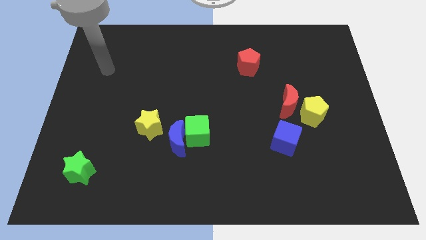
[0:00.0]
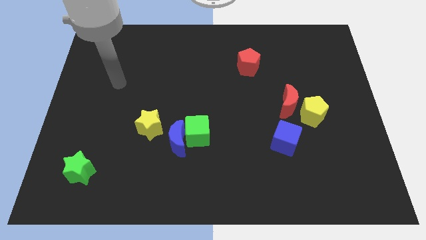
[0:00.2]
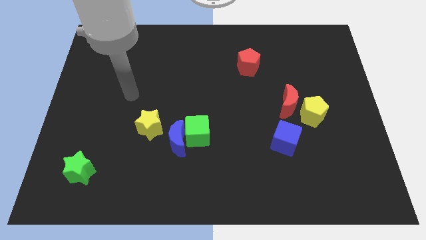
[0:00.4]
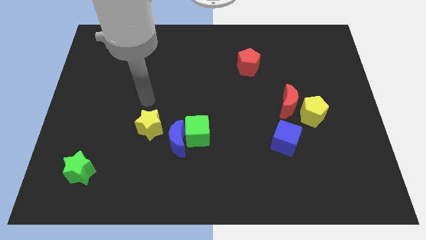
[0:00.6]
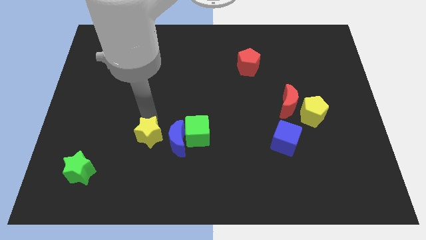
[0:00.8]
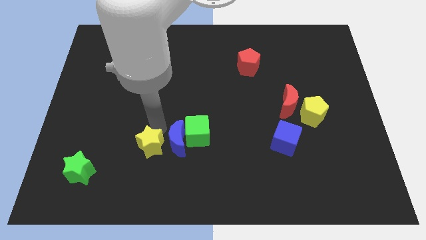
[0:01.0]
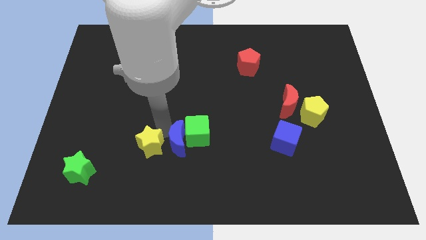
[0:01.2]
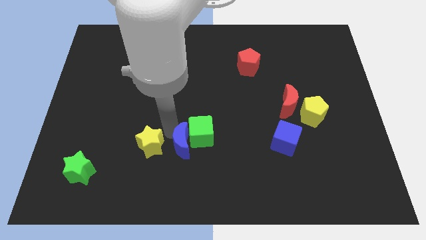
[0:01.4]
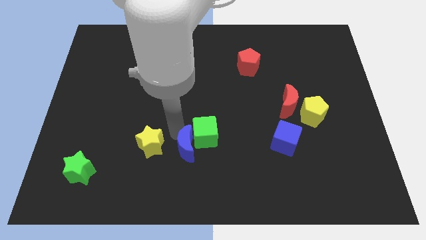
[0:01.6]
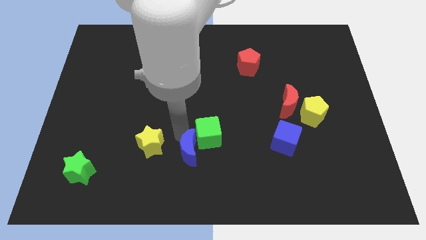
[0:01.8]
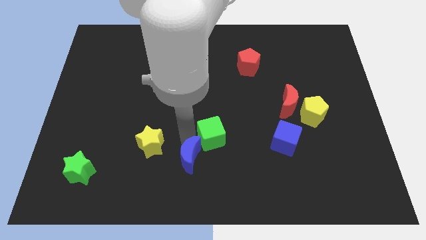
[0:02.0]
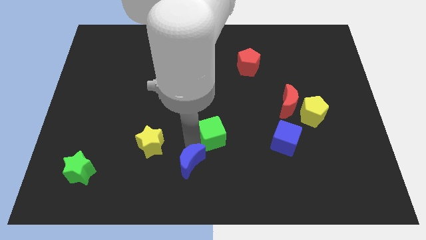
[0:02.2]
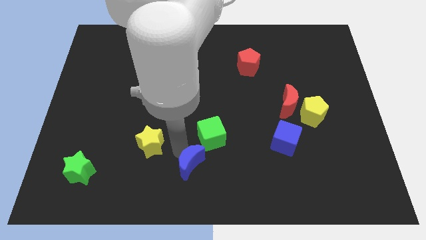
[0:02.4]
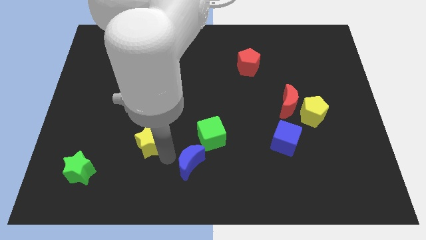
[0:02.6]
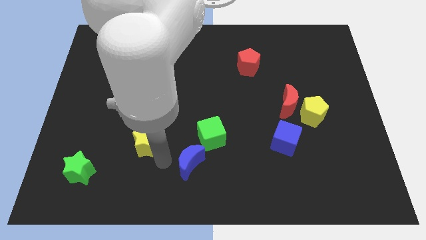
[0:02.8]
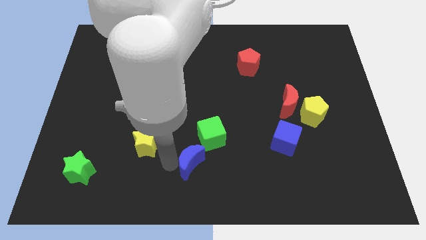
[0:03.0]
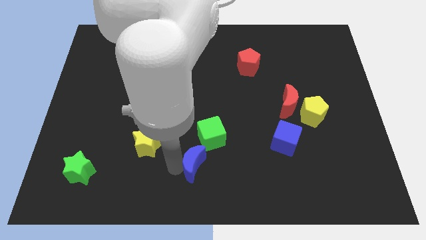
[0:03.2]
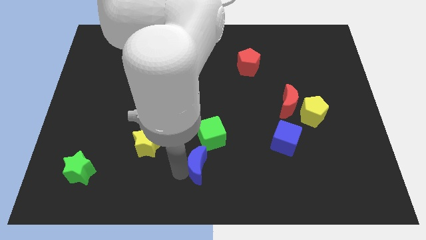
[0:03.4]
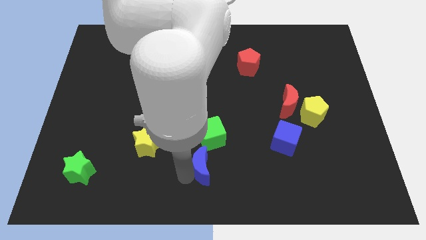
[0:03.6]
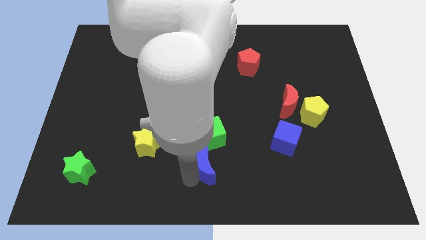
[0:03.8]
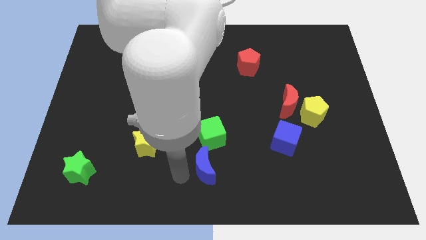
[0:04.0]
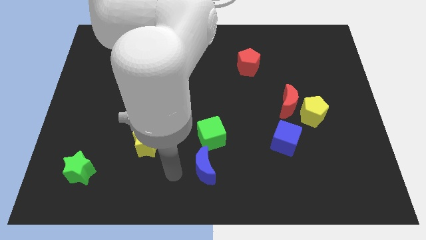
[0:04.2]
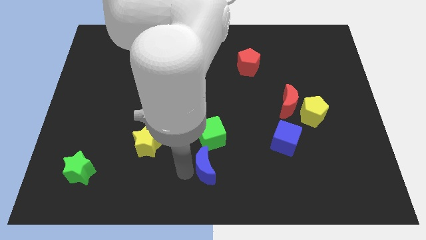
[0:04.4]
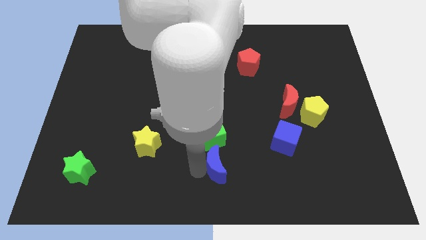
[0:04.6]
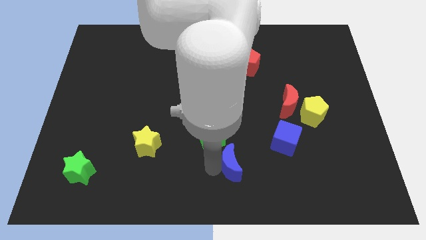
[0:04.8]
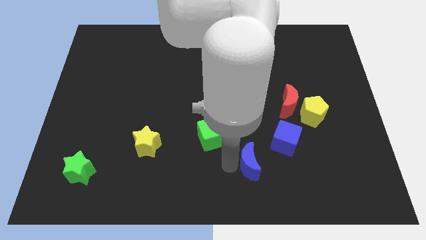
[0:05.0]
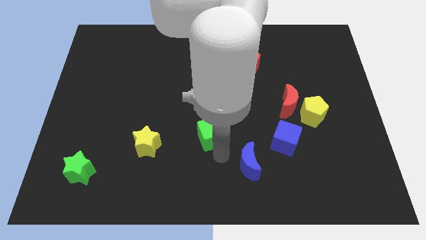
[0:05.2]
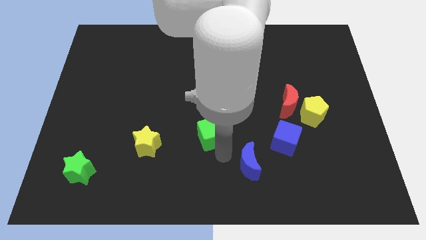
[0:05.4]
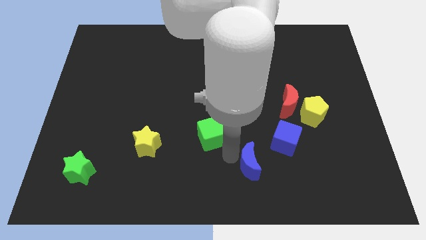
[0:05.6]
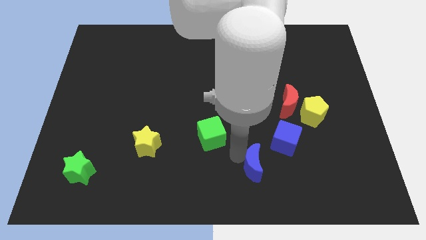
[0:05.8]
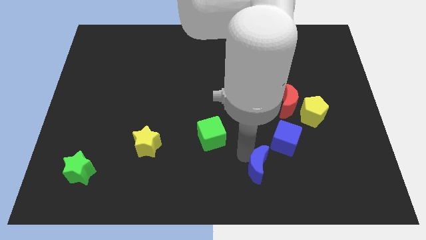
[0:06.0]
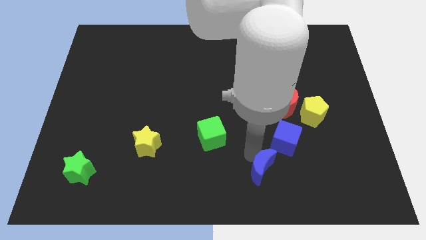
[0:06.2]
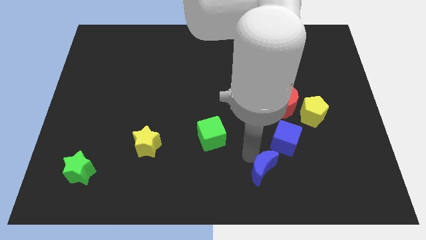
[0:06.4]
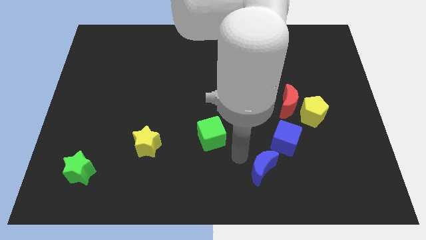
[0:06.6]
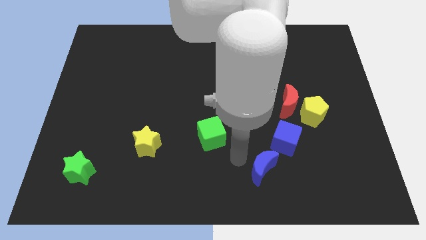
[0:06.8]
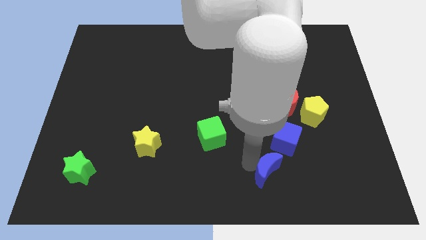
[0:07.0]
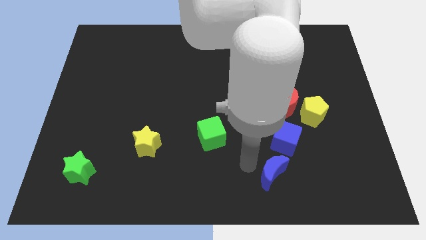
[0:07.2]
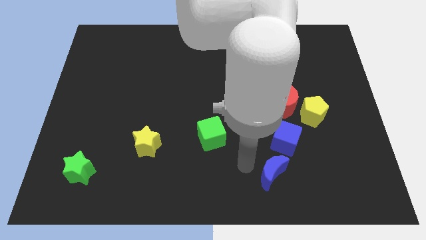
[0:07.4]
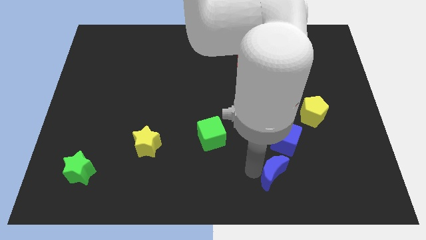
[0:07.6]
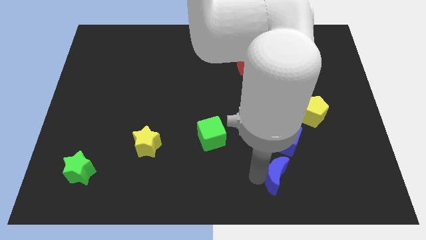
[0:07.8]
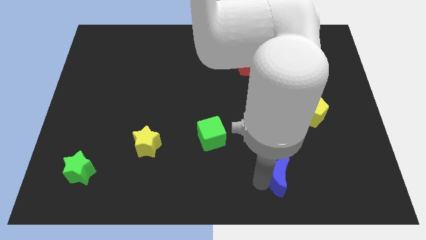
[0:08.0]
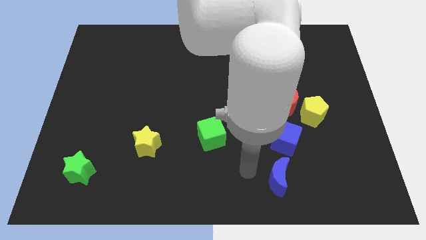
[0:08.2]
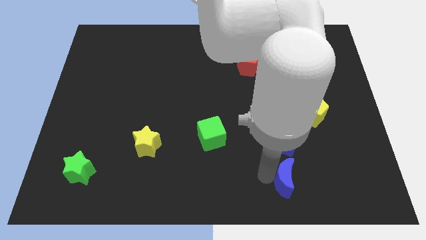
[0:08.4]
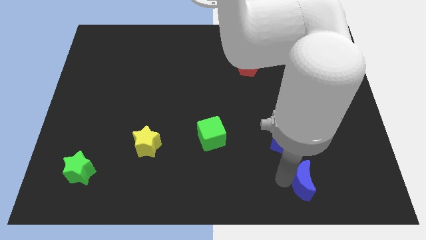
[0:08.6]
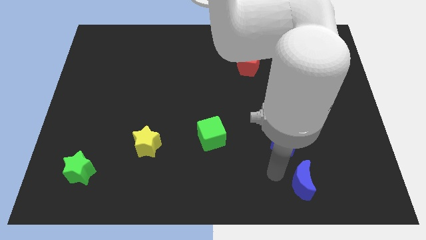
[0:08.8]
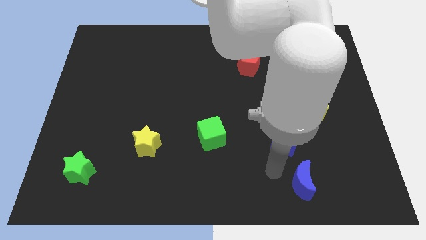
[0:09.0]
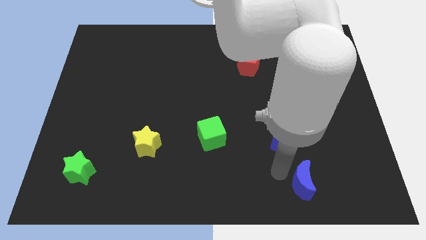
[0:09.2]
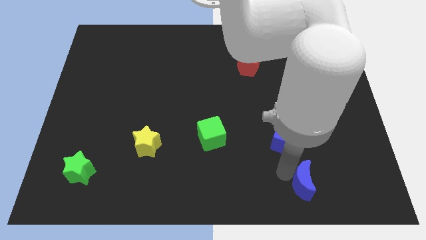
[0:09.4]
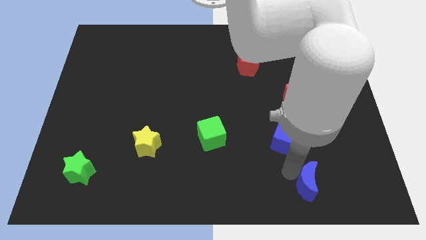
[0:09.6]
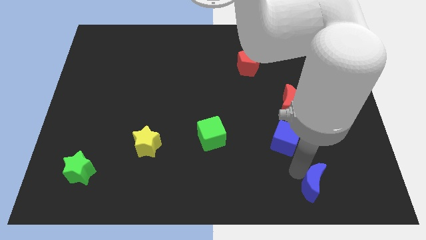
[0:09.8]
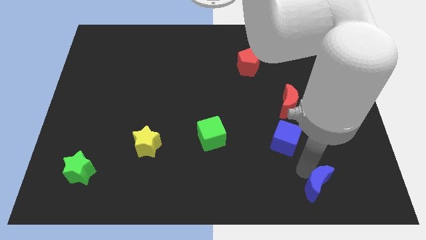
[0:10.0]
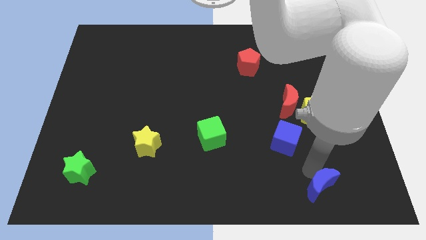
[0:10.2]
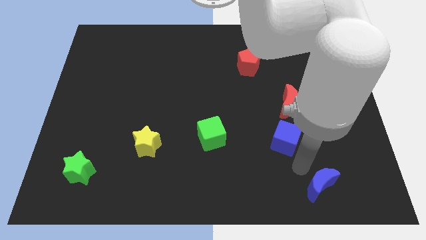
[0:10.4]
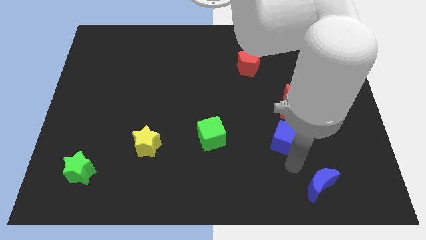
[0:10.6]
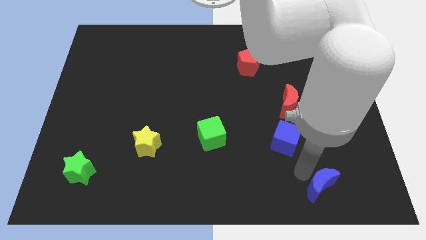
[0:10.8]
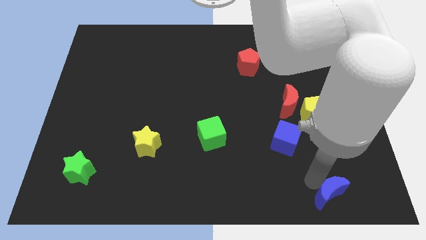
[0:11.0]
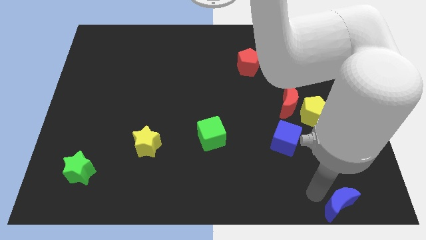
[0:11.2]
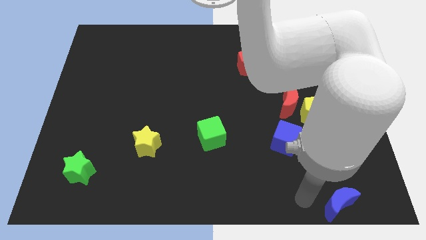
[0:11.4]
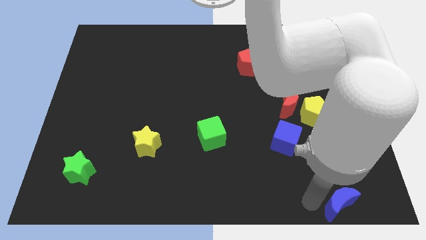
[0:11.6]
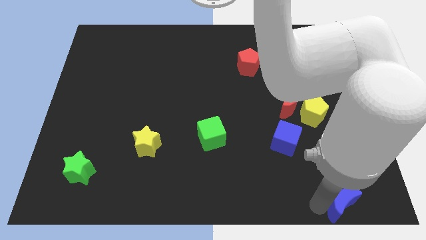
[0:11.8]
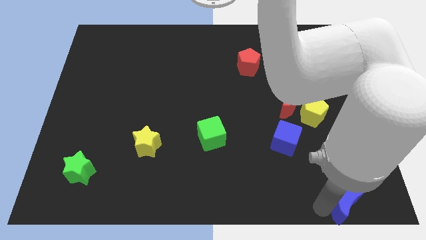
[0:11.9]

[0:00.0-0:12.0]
push the blue moon to the bottom right of the board

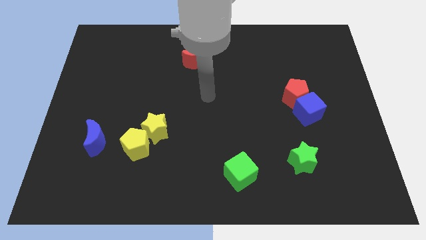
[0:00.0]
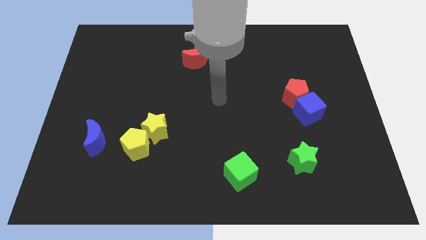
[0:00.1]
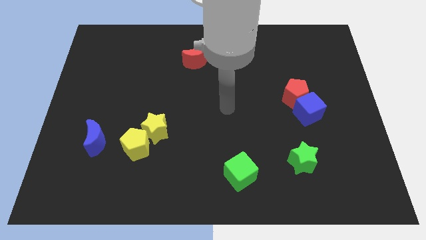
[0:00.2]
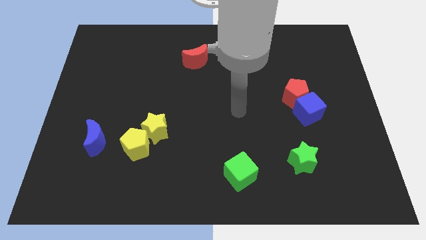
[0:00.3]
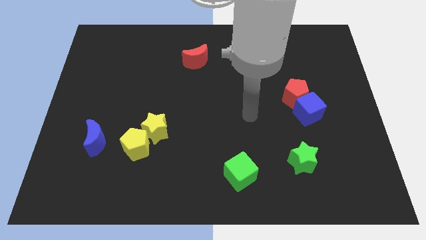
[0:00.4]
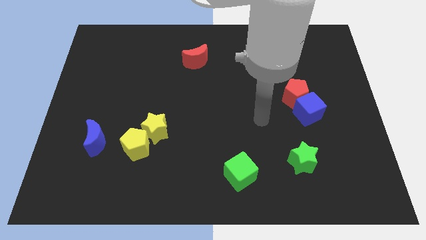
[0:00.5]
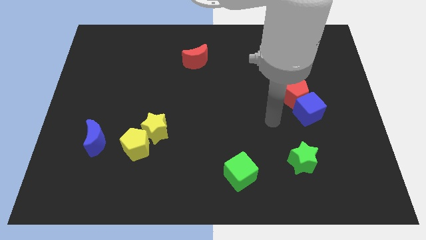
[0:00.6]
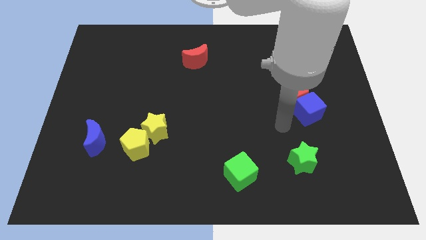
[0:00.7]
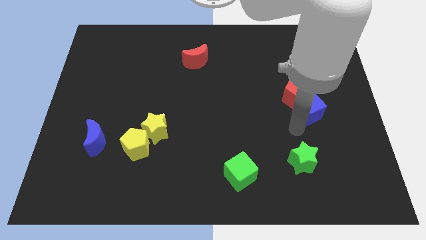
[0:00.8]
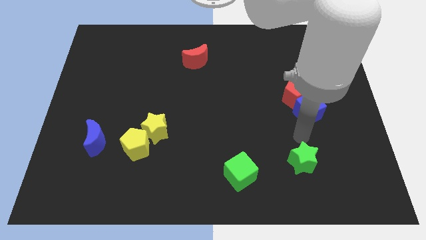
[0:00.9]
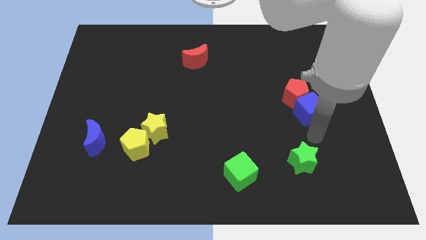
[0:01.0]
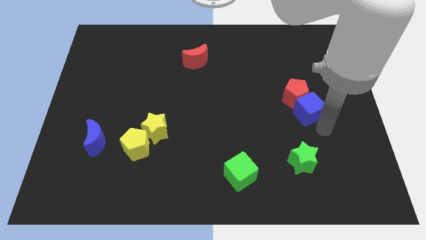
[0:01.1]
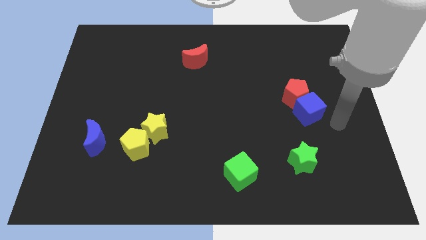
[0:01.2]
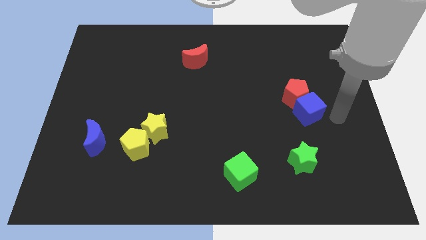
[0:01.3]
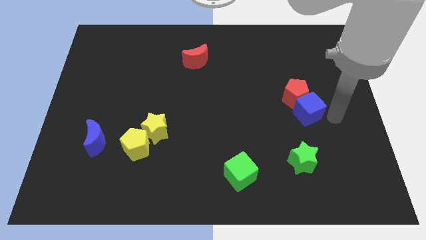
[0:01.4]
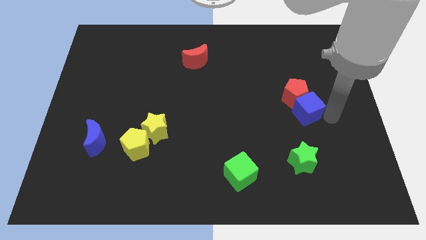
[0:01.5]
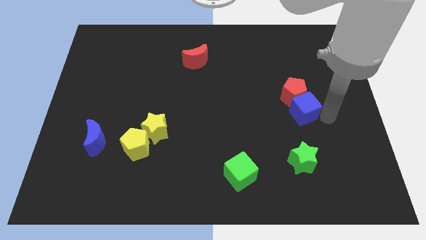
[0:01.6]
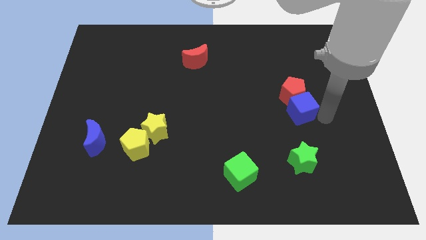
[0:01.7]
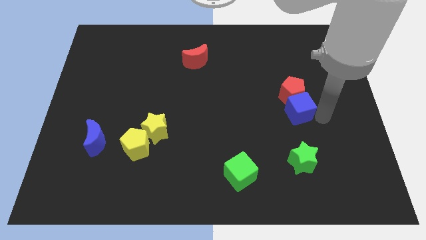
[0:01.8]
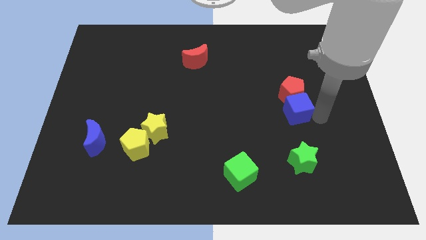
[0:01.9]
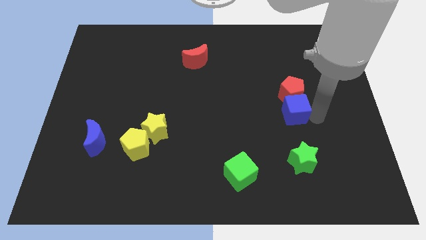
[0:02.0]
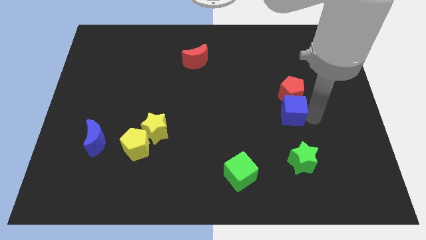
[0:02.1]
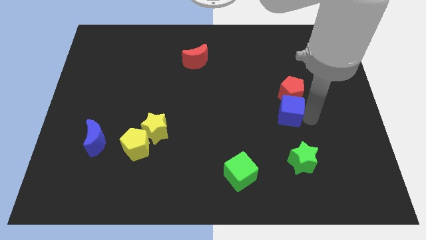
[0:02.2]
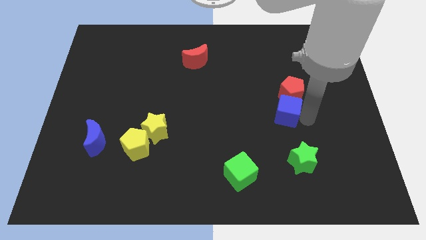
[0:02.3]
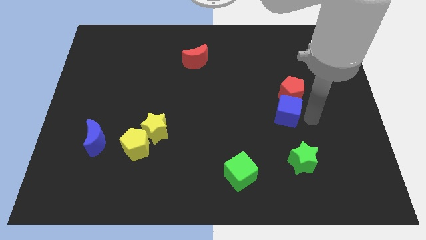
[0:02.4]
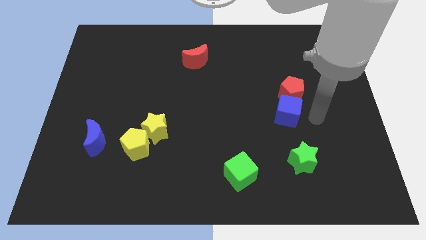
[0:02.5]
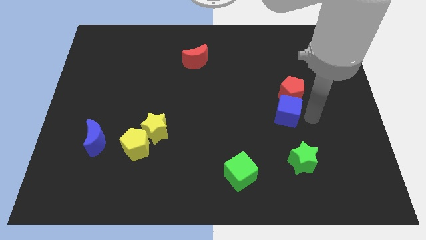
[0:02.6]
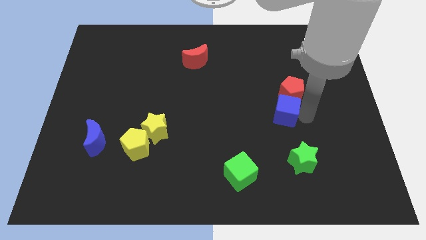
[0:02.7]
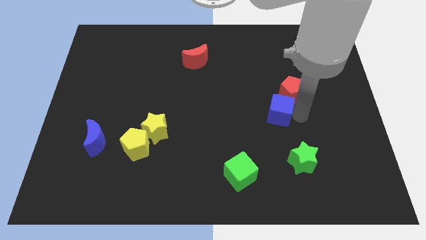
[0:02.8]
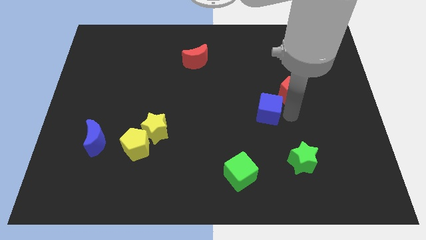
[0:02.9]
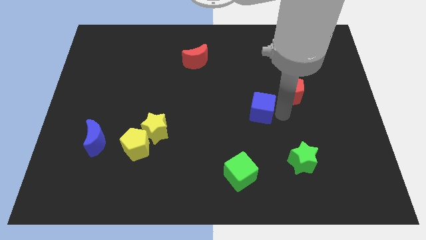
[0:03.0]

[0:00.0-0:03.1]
slide the blue cube to the center of the board
